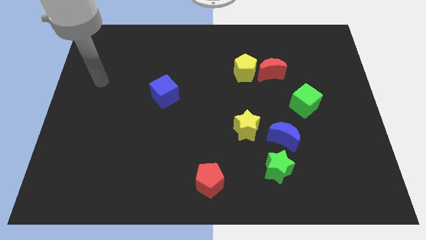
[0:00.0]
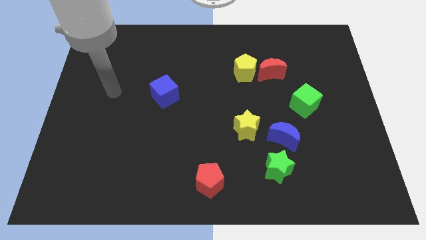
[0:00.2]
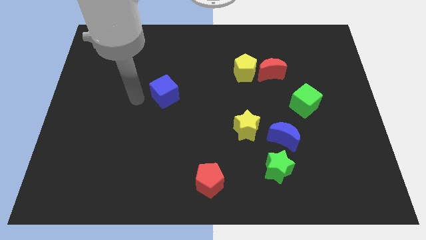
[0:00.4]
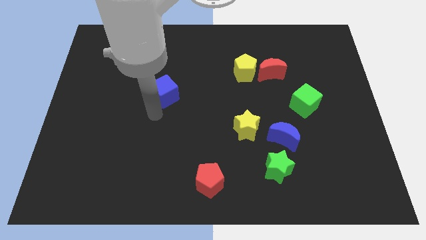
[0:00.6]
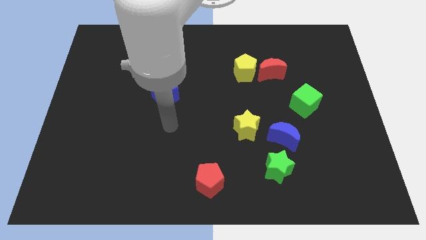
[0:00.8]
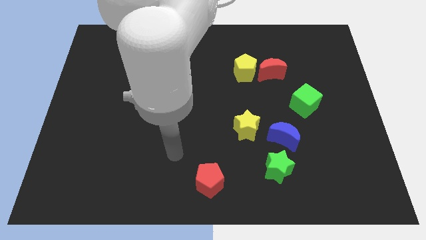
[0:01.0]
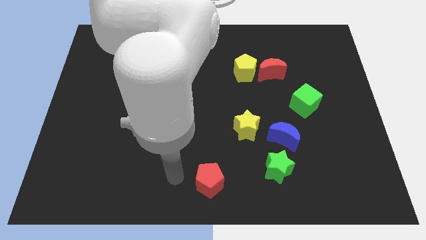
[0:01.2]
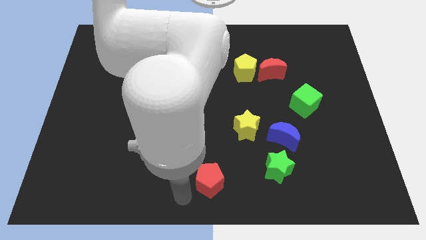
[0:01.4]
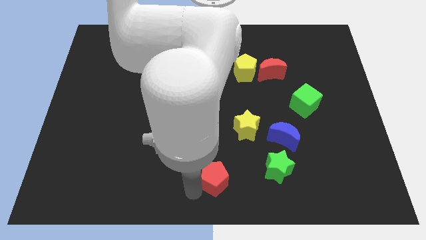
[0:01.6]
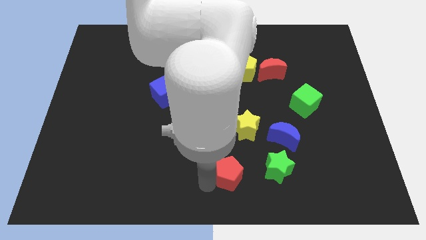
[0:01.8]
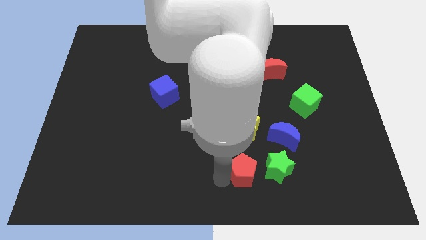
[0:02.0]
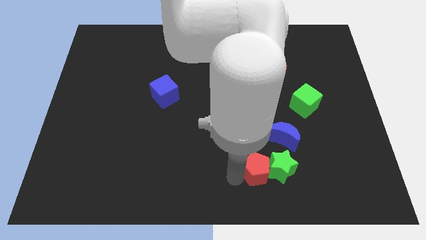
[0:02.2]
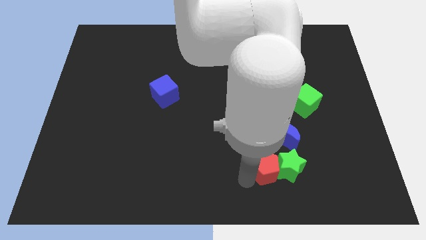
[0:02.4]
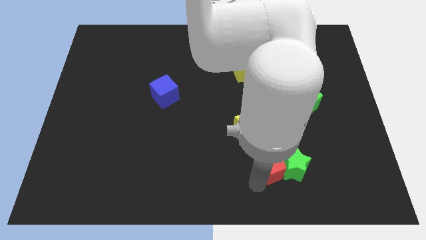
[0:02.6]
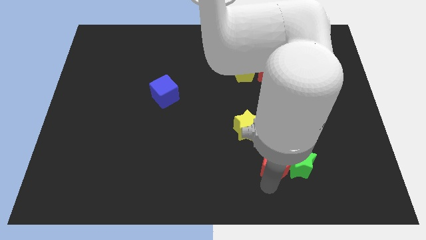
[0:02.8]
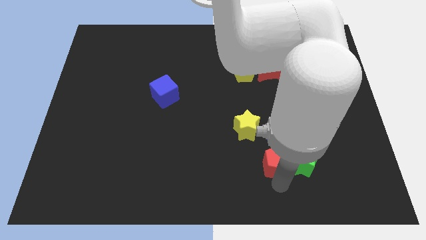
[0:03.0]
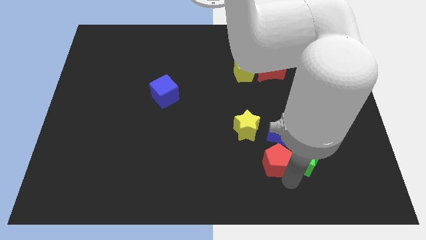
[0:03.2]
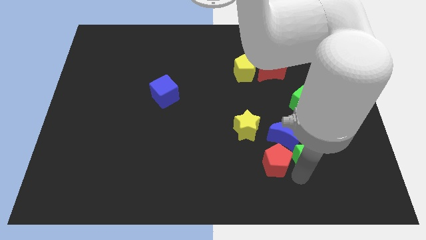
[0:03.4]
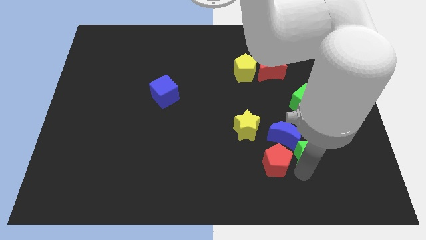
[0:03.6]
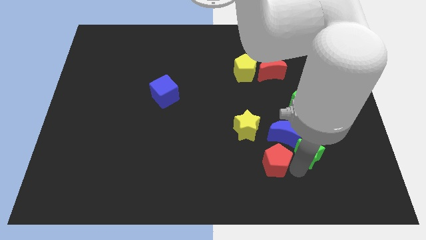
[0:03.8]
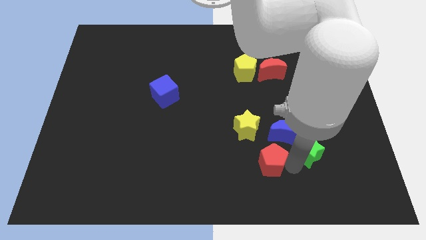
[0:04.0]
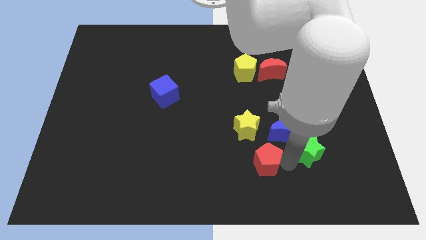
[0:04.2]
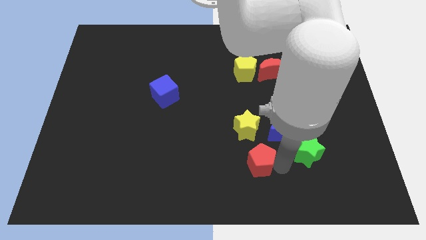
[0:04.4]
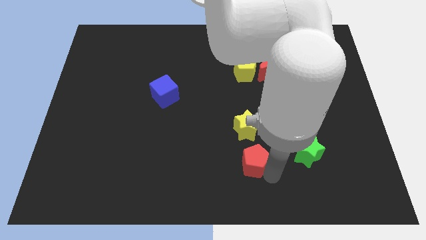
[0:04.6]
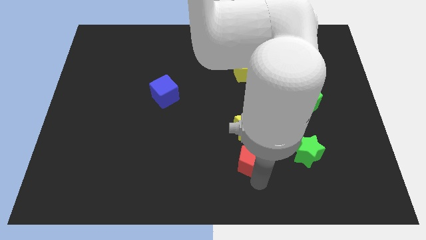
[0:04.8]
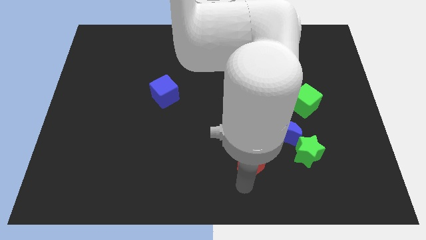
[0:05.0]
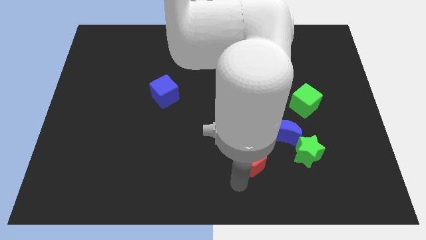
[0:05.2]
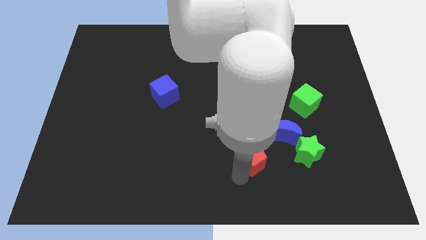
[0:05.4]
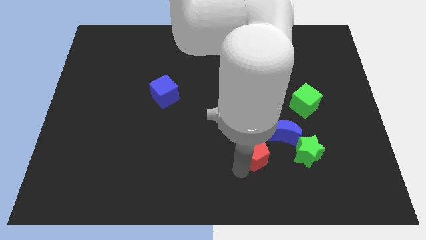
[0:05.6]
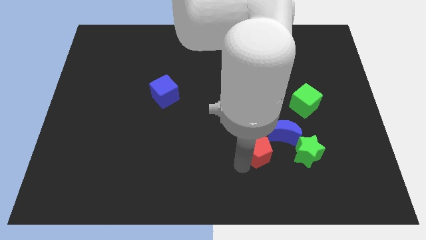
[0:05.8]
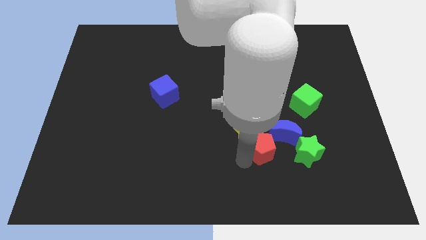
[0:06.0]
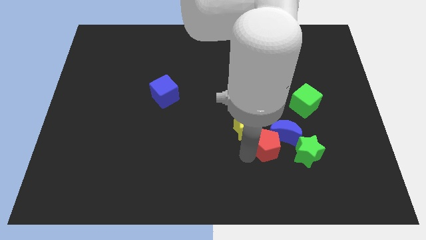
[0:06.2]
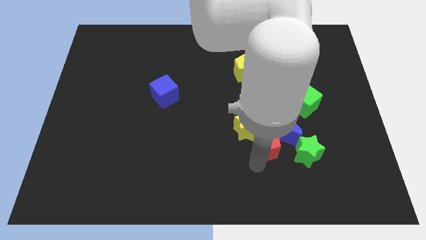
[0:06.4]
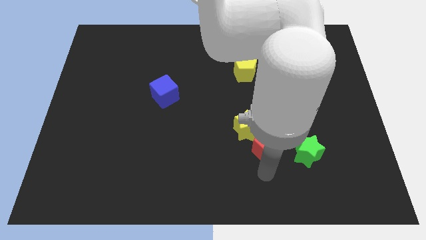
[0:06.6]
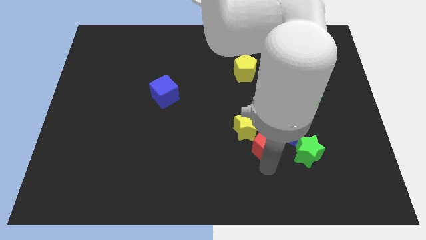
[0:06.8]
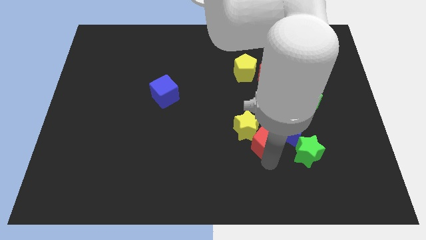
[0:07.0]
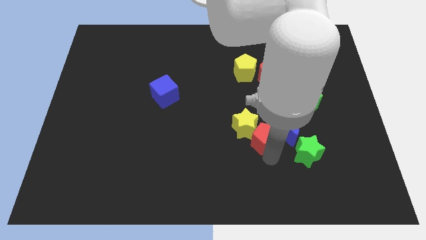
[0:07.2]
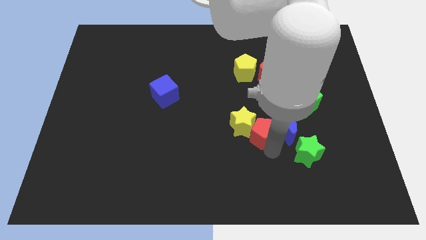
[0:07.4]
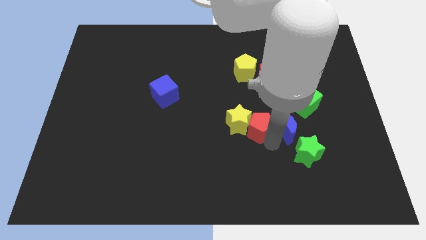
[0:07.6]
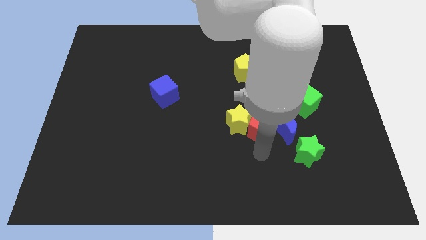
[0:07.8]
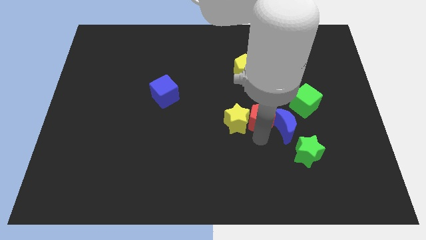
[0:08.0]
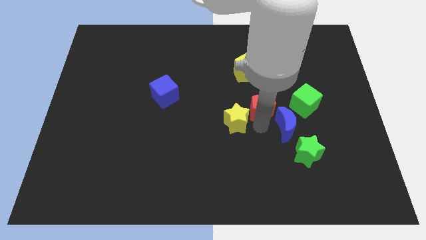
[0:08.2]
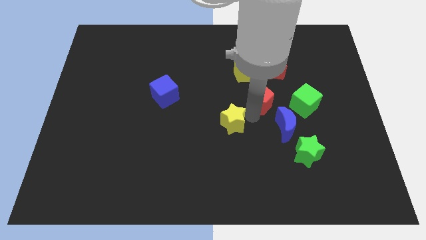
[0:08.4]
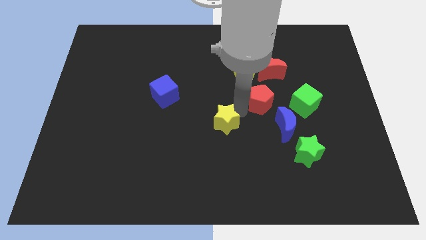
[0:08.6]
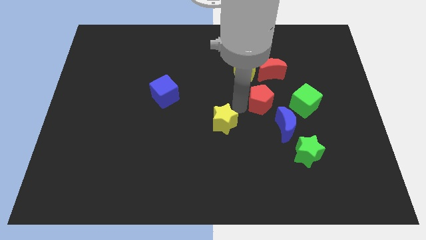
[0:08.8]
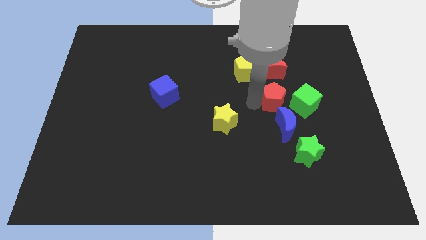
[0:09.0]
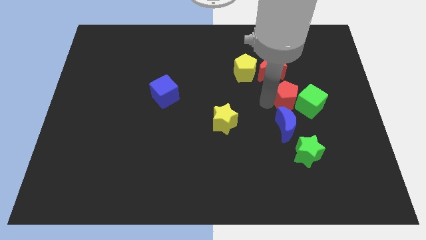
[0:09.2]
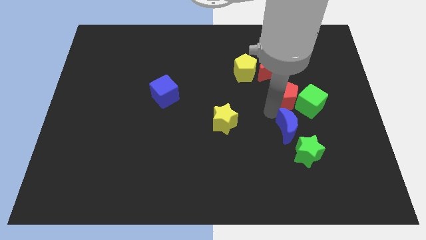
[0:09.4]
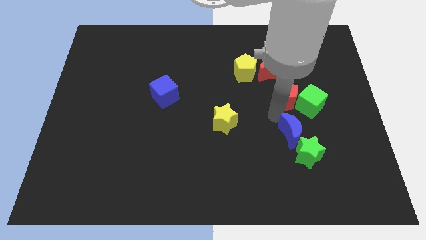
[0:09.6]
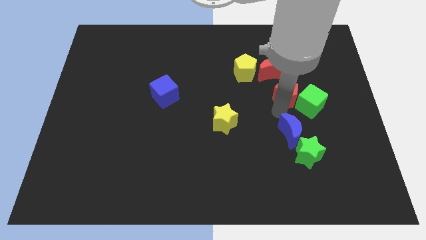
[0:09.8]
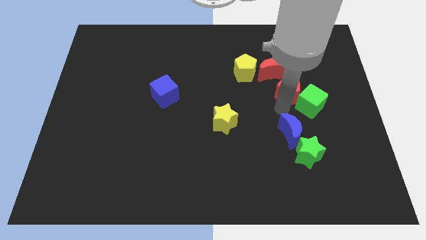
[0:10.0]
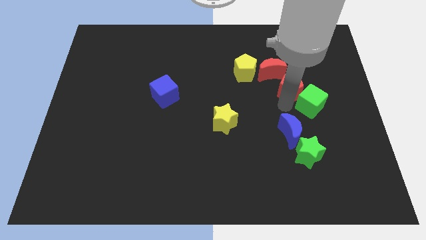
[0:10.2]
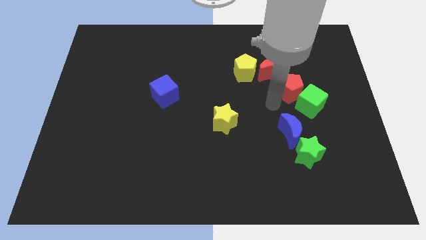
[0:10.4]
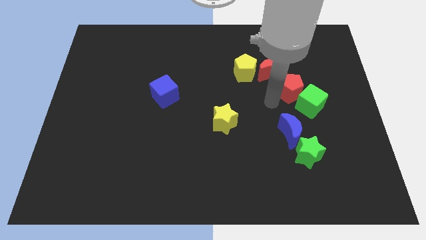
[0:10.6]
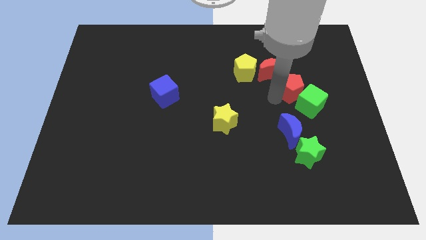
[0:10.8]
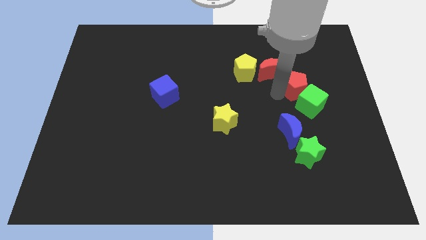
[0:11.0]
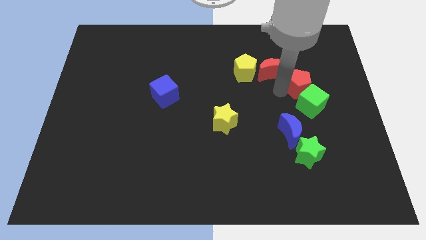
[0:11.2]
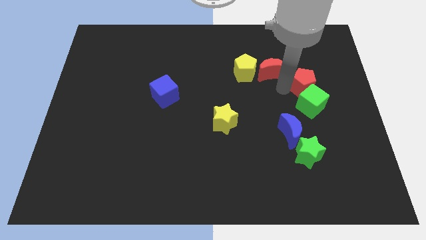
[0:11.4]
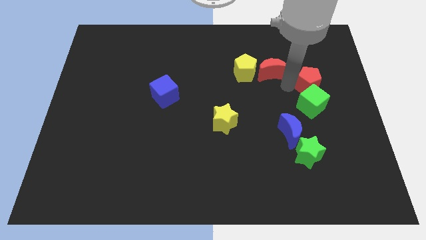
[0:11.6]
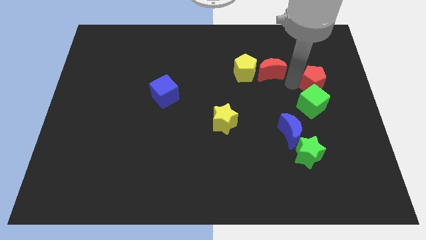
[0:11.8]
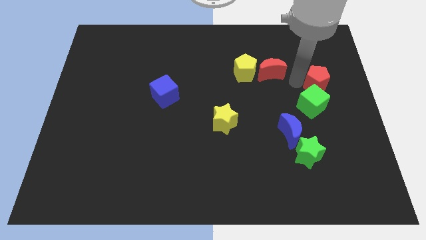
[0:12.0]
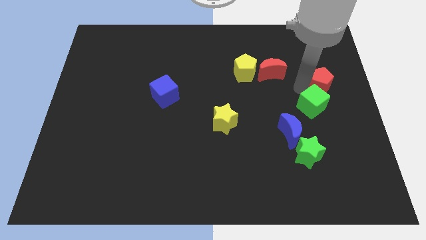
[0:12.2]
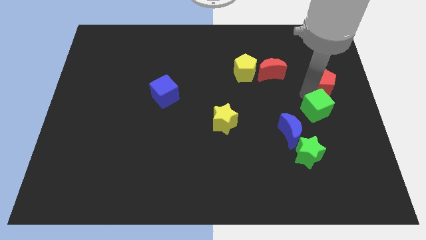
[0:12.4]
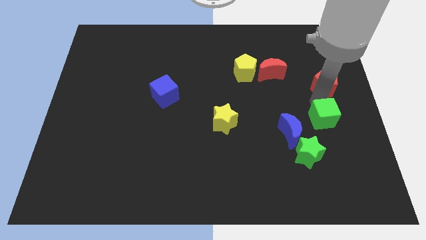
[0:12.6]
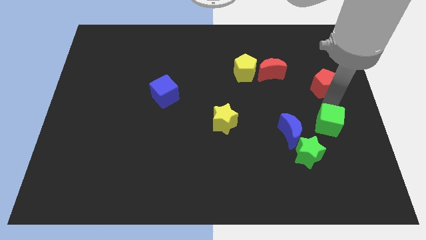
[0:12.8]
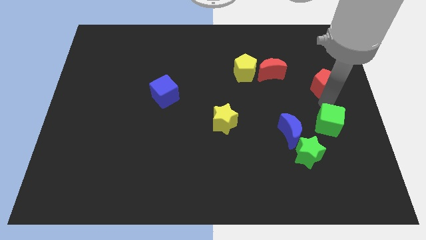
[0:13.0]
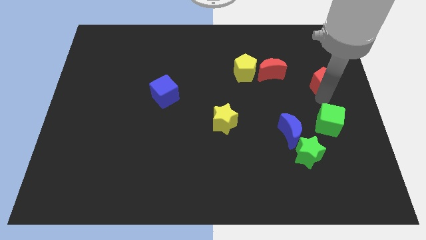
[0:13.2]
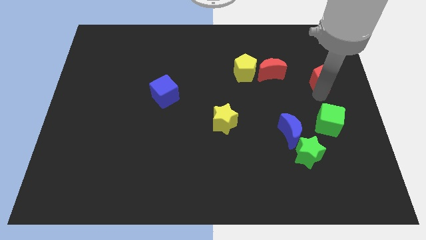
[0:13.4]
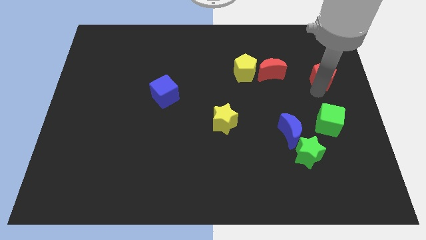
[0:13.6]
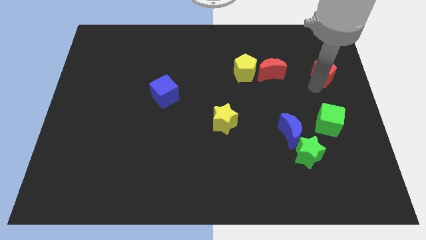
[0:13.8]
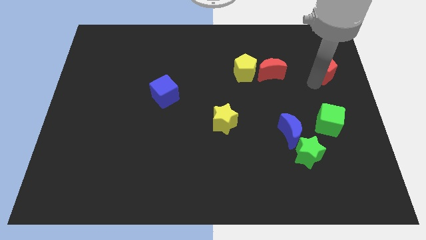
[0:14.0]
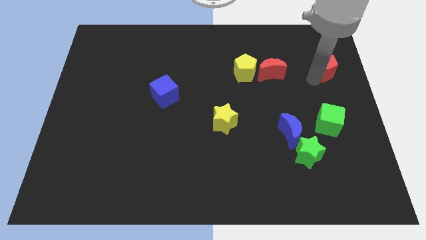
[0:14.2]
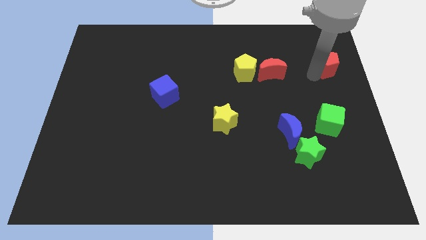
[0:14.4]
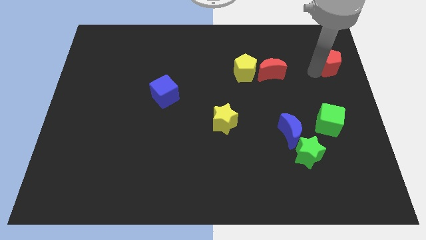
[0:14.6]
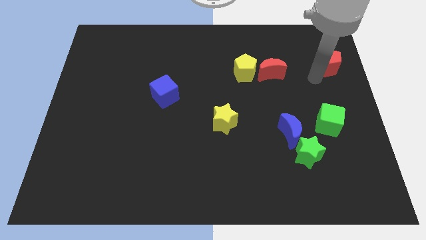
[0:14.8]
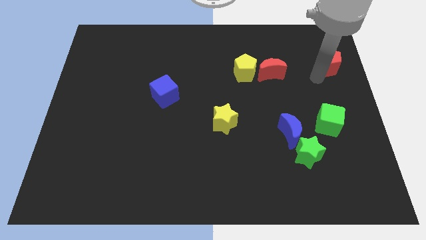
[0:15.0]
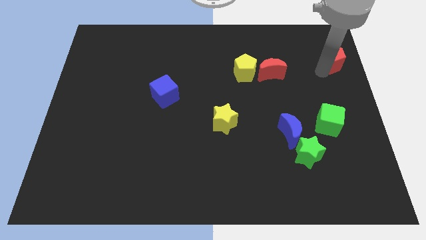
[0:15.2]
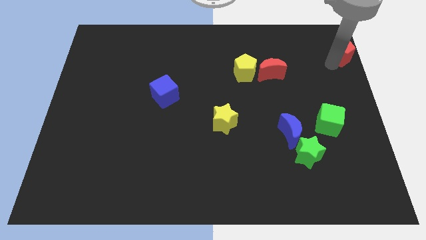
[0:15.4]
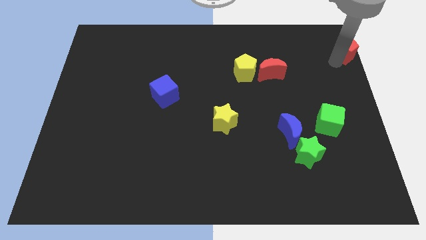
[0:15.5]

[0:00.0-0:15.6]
push the red pentagon to the top right of the board
